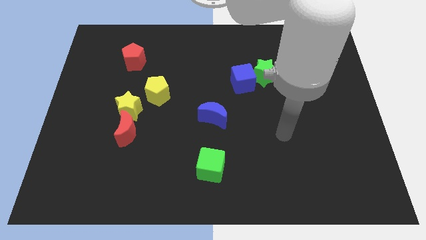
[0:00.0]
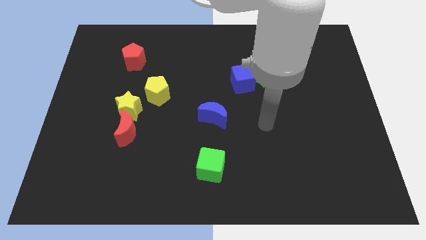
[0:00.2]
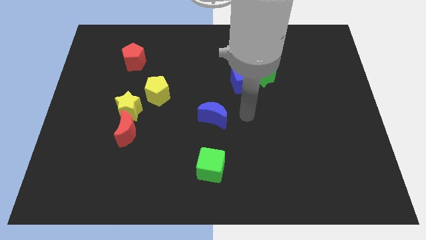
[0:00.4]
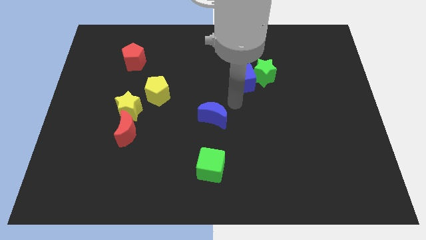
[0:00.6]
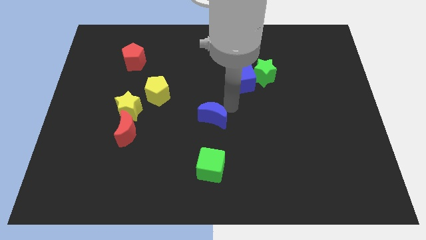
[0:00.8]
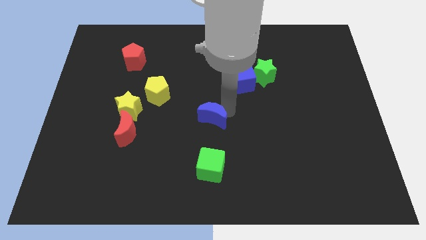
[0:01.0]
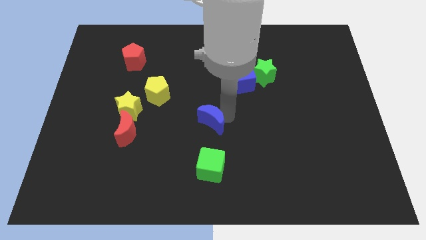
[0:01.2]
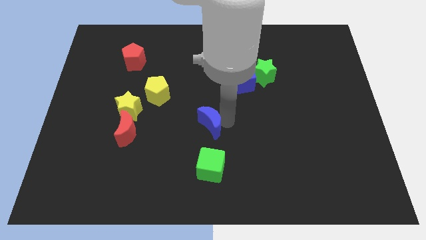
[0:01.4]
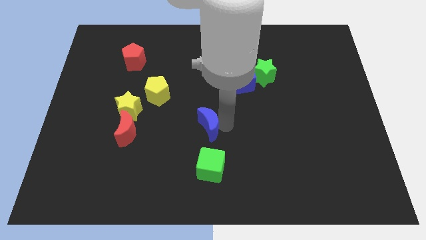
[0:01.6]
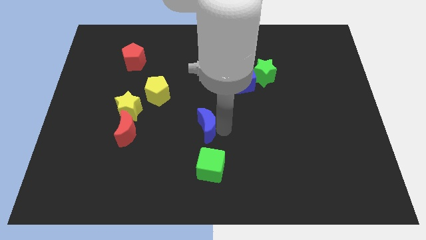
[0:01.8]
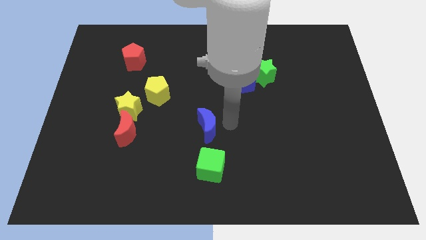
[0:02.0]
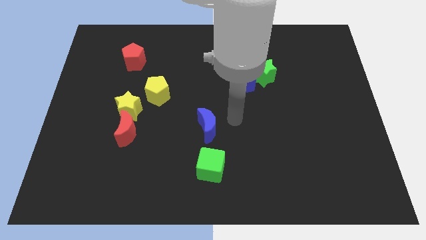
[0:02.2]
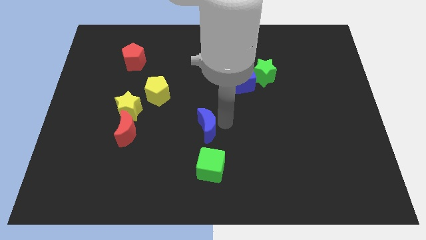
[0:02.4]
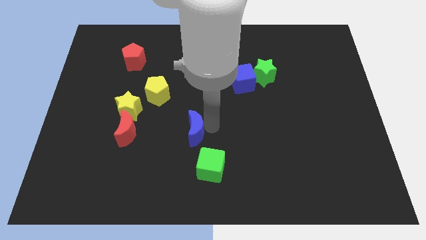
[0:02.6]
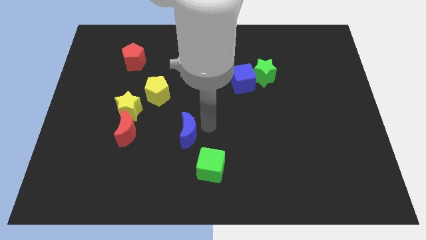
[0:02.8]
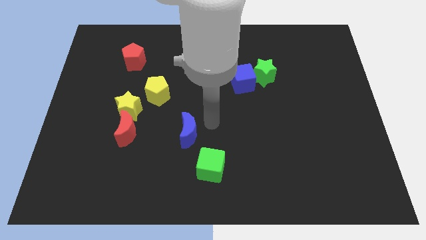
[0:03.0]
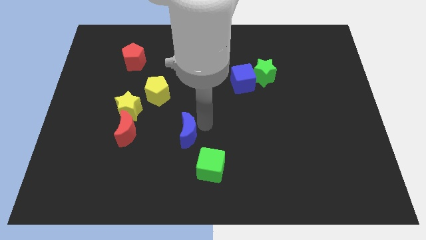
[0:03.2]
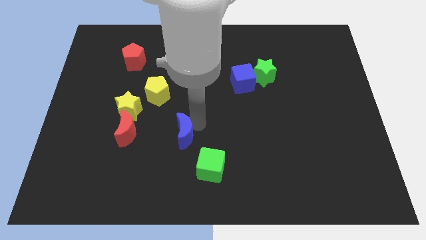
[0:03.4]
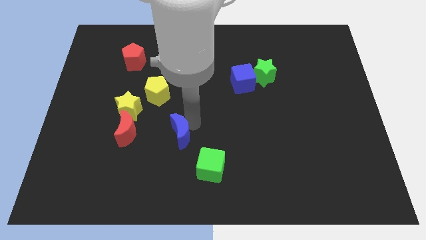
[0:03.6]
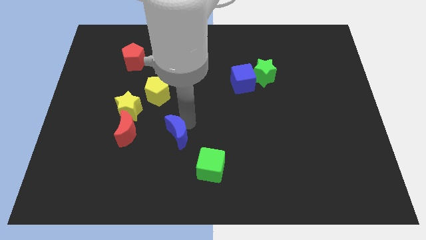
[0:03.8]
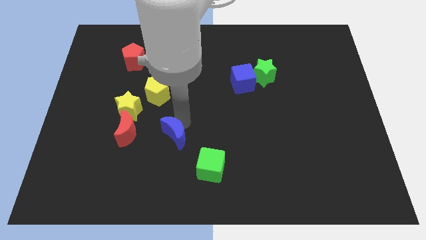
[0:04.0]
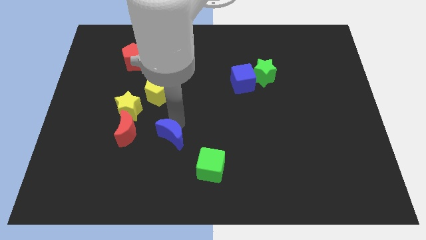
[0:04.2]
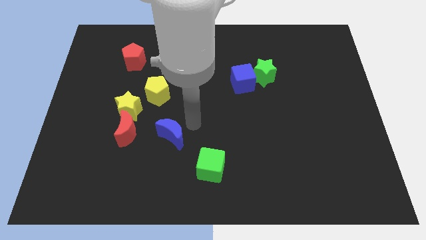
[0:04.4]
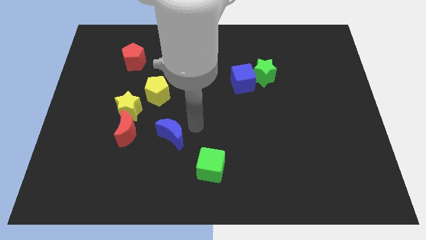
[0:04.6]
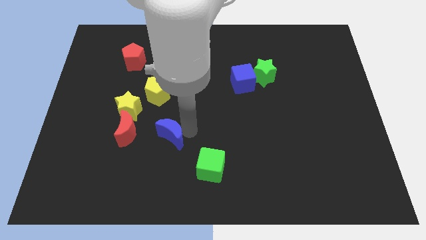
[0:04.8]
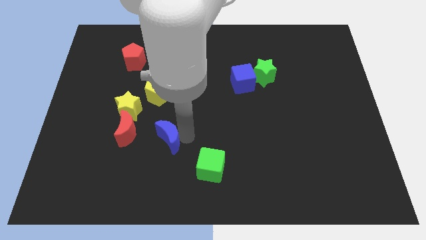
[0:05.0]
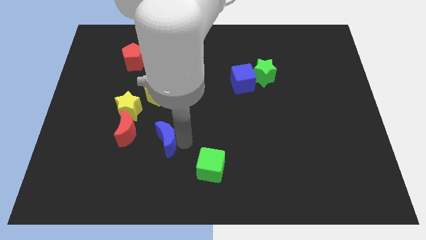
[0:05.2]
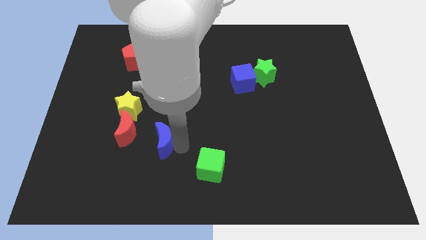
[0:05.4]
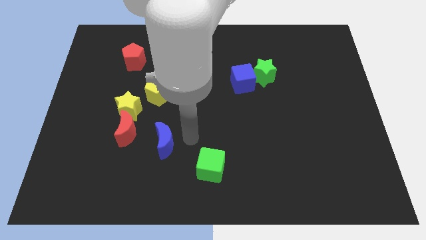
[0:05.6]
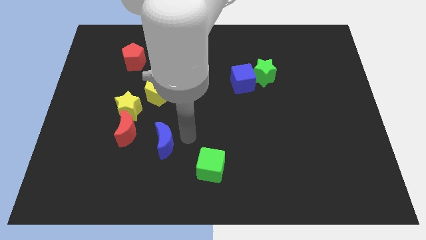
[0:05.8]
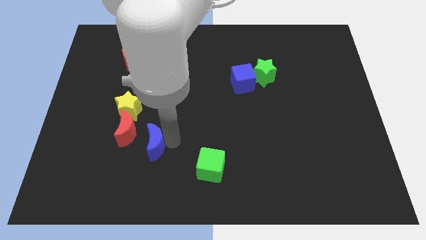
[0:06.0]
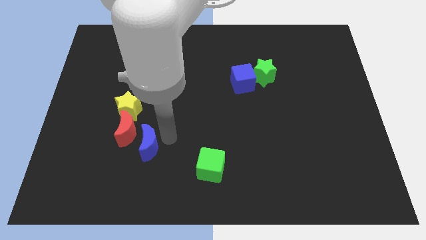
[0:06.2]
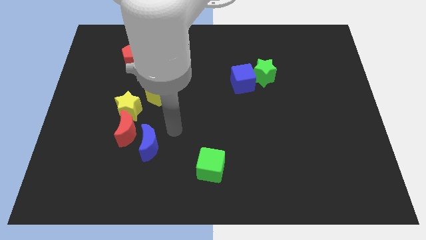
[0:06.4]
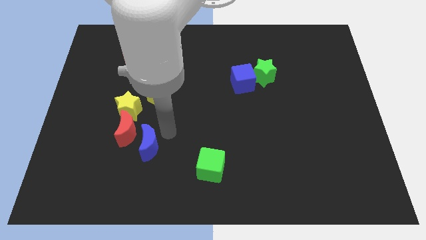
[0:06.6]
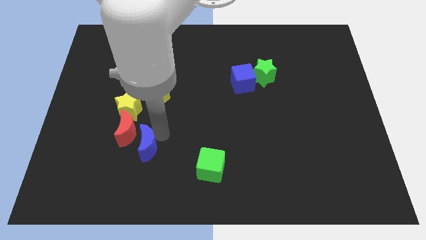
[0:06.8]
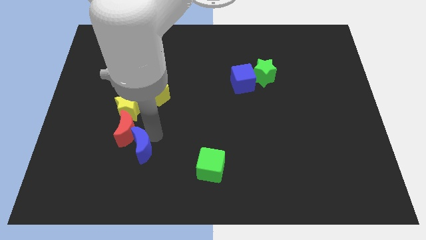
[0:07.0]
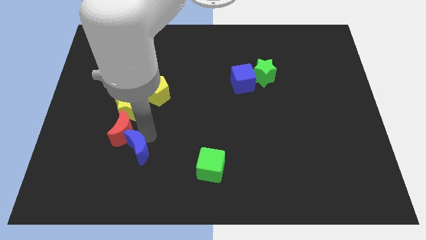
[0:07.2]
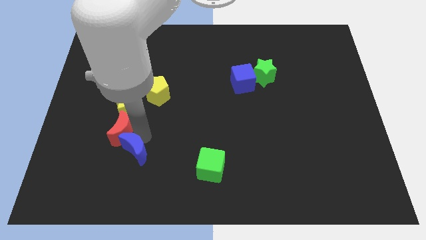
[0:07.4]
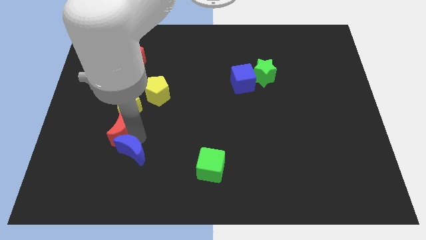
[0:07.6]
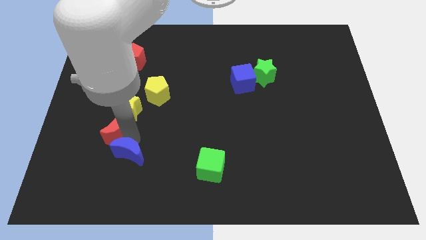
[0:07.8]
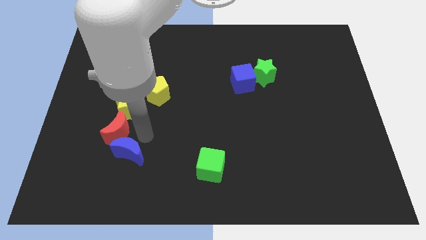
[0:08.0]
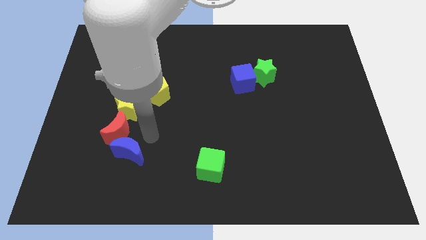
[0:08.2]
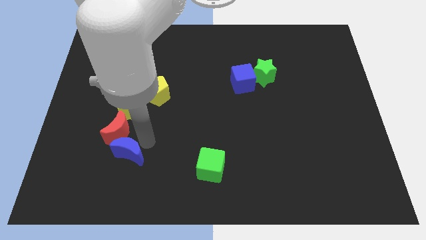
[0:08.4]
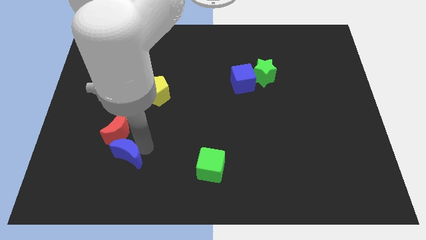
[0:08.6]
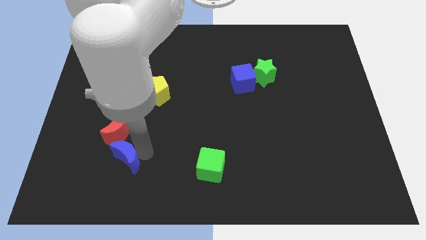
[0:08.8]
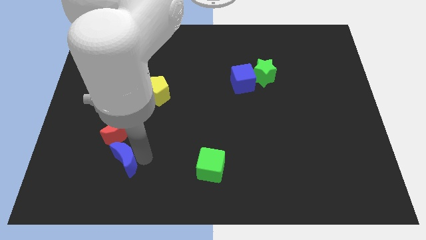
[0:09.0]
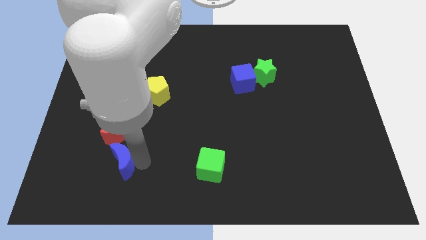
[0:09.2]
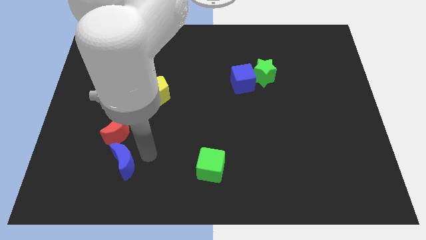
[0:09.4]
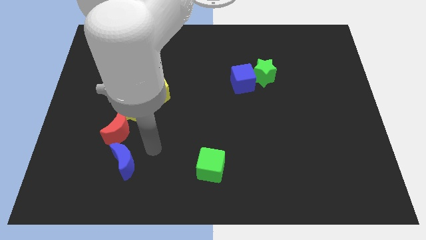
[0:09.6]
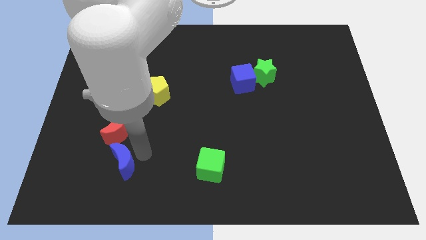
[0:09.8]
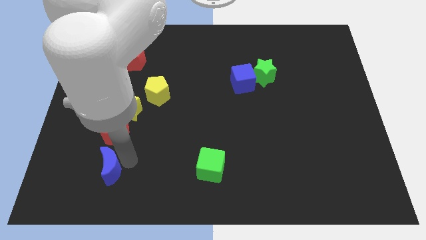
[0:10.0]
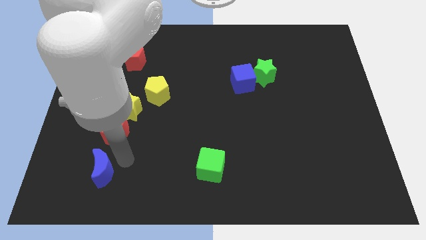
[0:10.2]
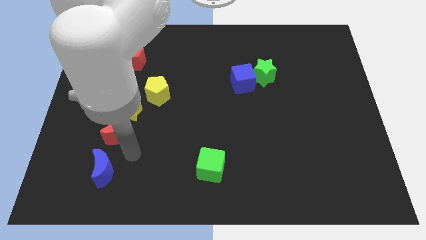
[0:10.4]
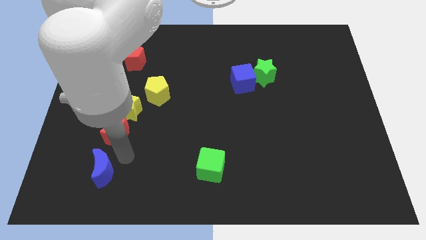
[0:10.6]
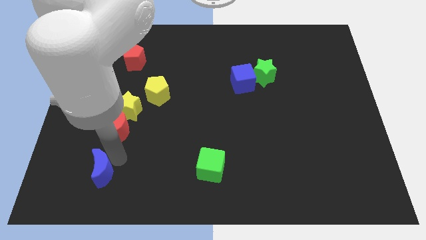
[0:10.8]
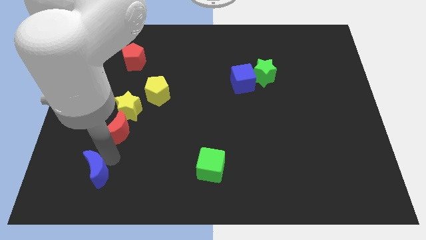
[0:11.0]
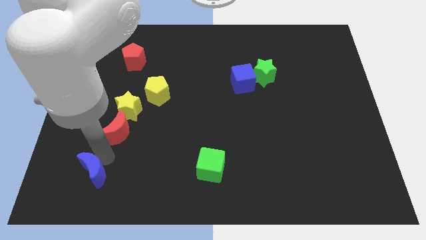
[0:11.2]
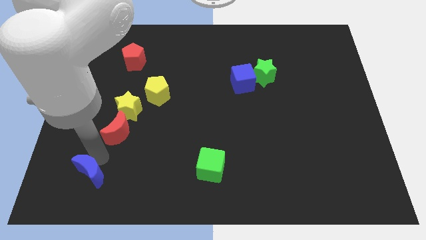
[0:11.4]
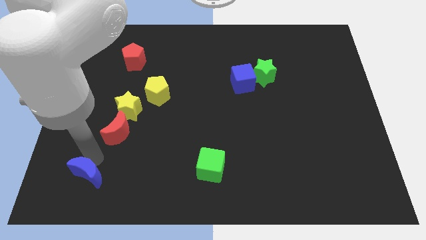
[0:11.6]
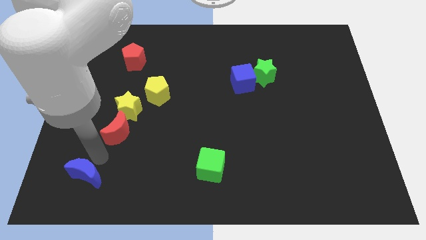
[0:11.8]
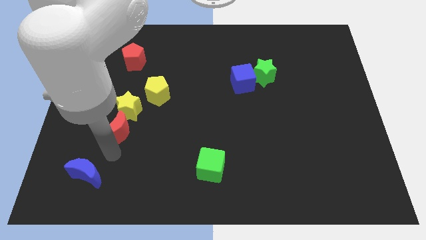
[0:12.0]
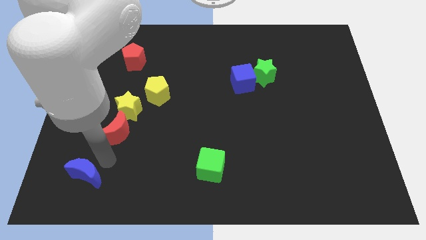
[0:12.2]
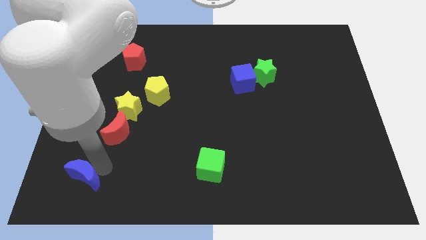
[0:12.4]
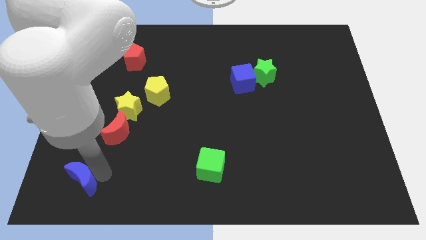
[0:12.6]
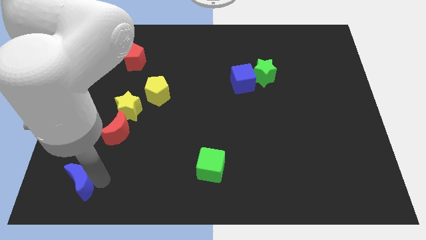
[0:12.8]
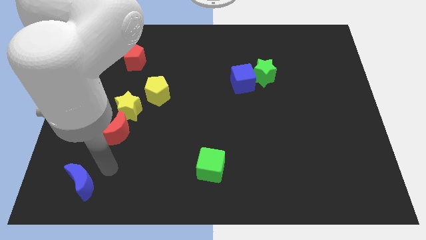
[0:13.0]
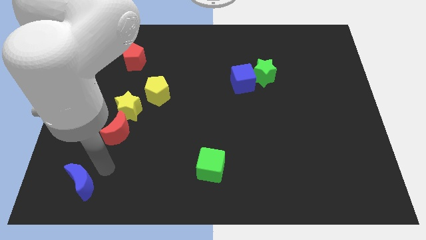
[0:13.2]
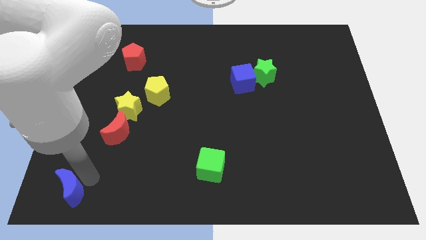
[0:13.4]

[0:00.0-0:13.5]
move the blue moon to the bottom left corner
